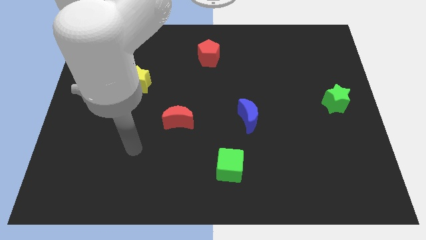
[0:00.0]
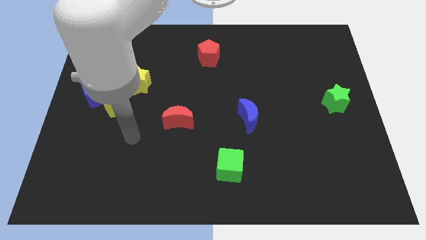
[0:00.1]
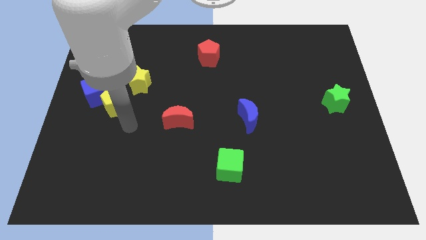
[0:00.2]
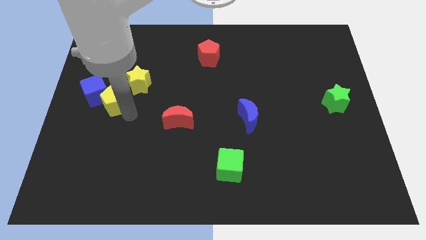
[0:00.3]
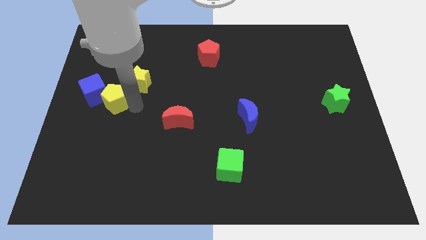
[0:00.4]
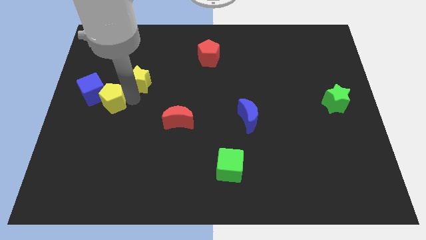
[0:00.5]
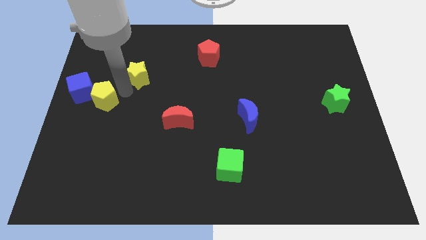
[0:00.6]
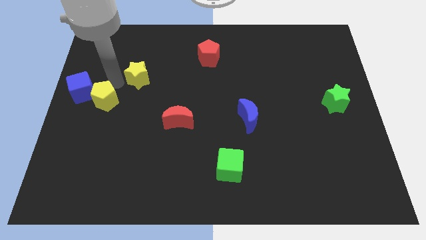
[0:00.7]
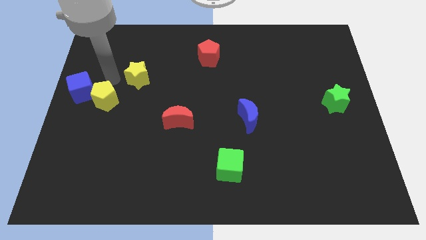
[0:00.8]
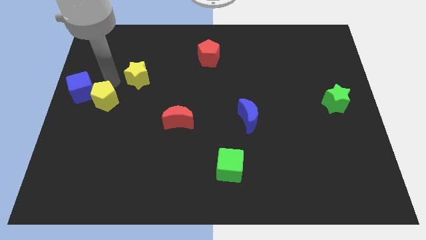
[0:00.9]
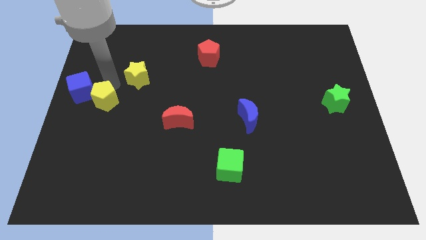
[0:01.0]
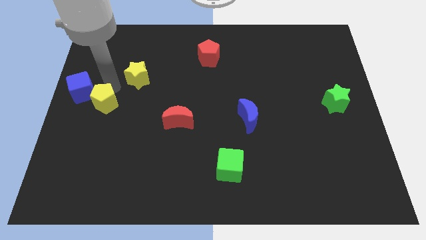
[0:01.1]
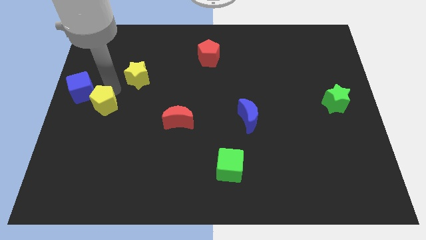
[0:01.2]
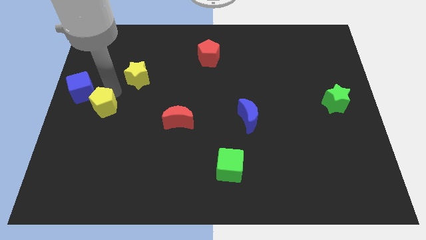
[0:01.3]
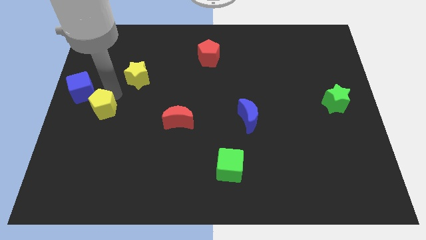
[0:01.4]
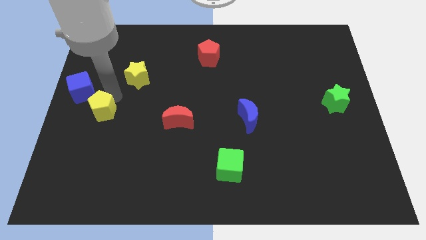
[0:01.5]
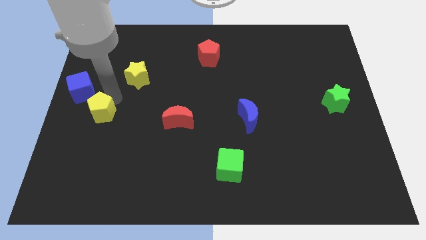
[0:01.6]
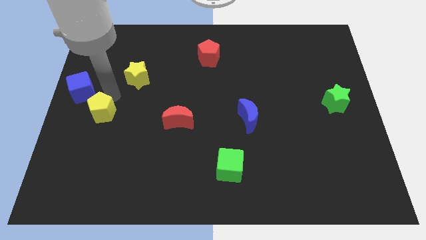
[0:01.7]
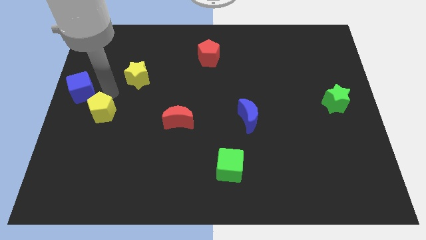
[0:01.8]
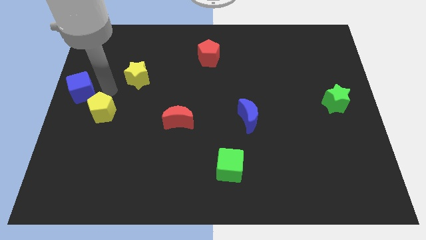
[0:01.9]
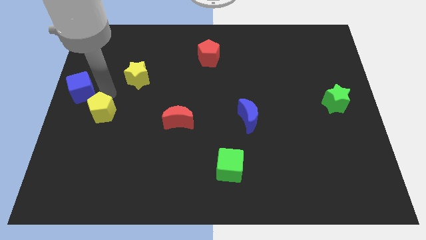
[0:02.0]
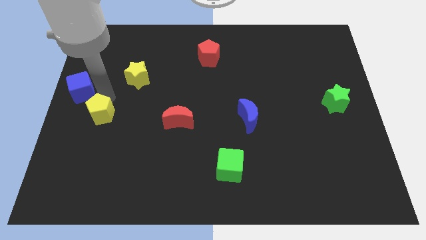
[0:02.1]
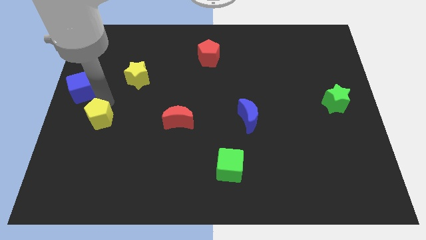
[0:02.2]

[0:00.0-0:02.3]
move the yellow pentagon away from the blue cube and yellow star

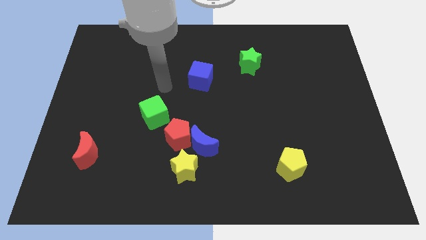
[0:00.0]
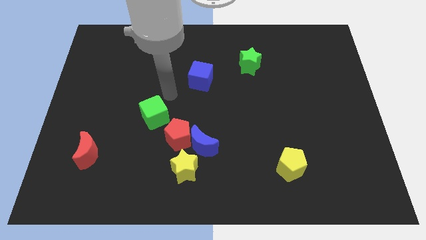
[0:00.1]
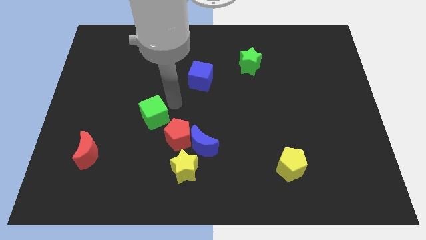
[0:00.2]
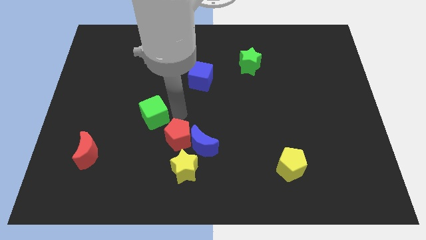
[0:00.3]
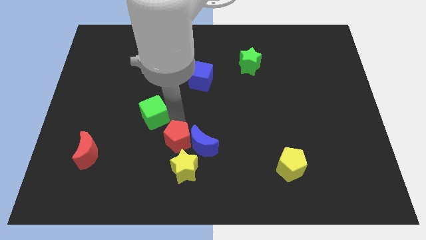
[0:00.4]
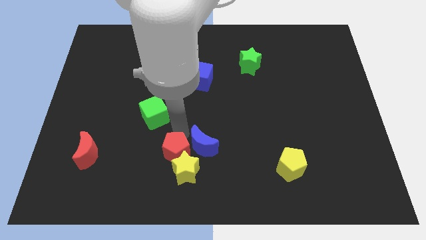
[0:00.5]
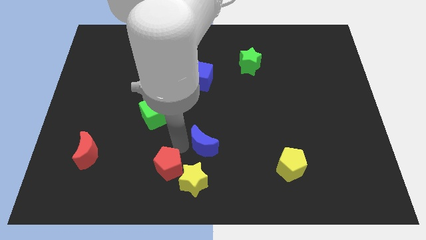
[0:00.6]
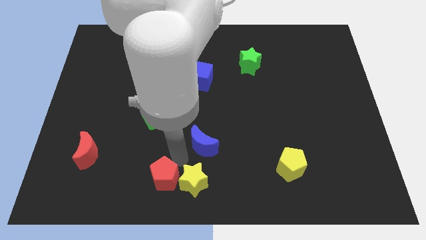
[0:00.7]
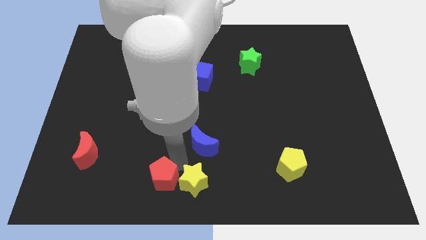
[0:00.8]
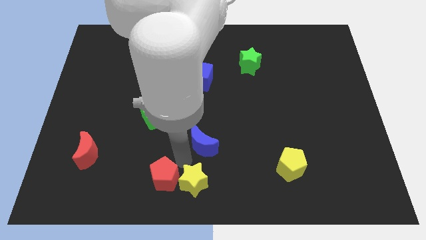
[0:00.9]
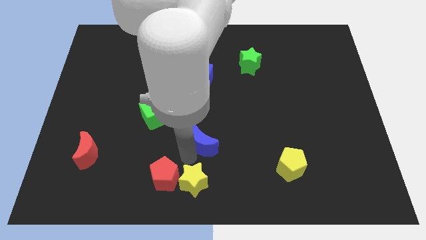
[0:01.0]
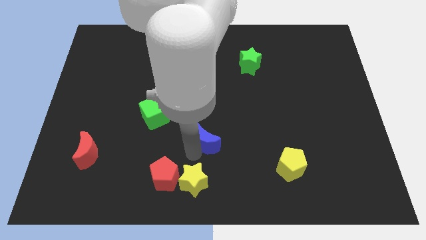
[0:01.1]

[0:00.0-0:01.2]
pull the blue moon apart from the red pentagon and yellow star

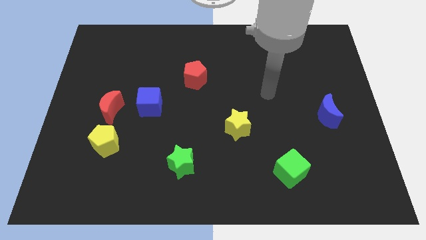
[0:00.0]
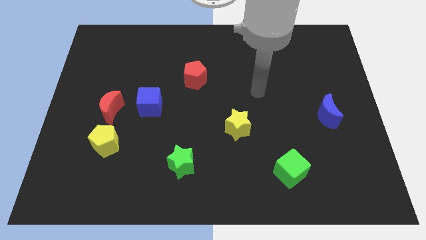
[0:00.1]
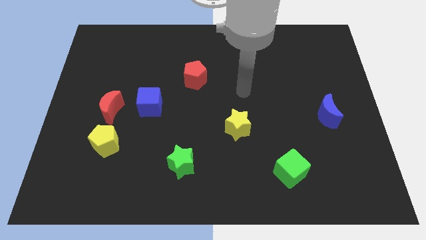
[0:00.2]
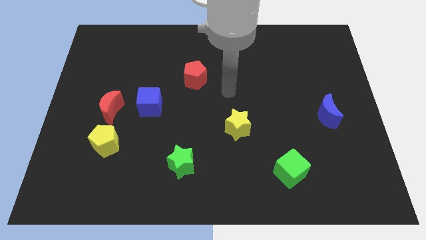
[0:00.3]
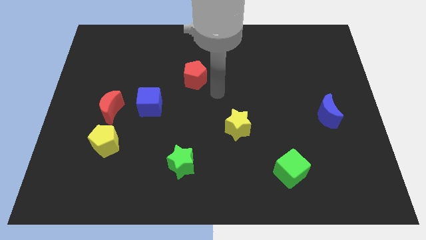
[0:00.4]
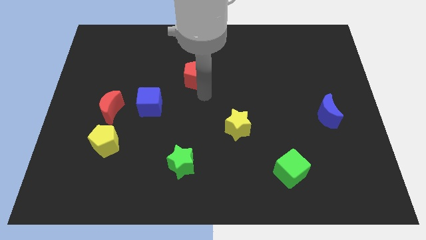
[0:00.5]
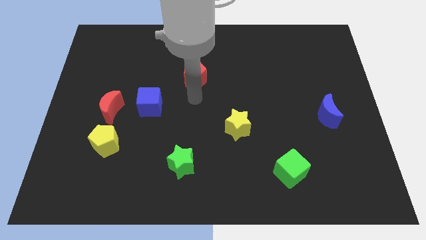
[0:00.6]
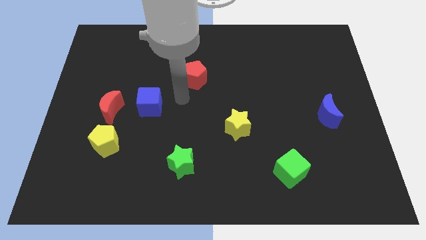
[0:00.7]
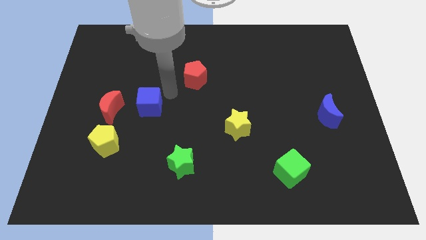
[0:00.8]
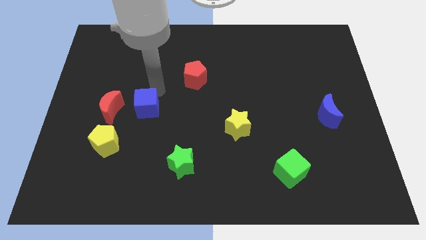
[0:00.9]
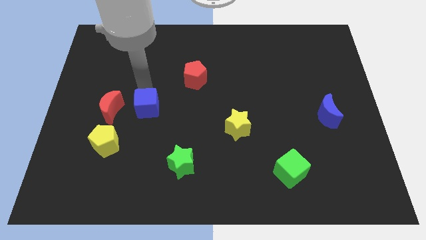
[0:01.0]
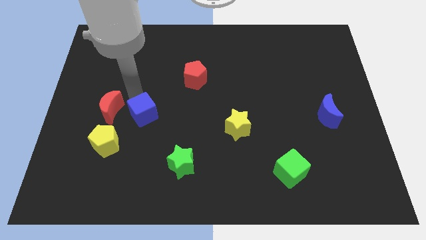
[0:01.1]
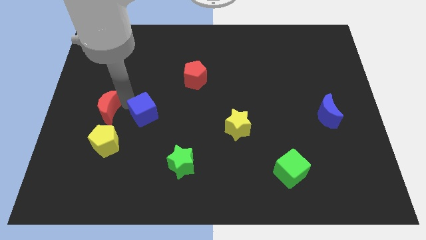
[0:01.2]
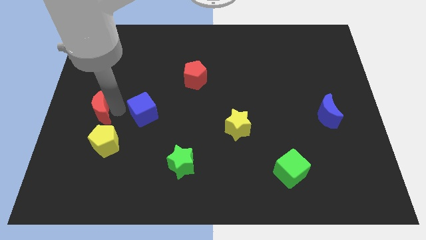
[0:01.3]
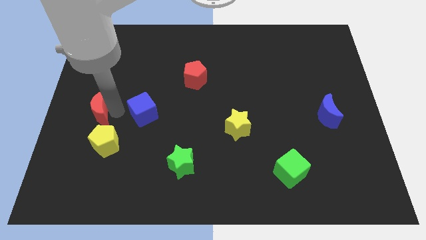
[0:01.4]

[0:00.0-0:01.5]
move the blue cube away from the red moon

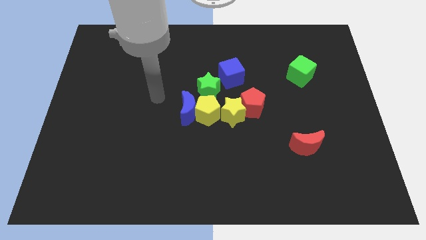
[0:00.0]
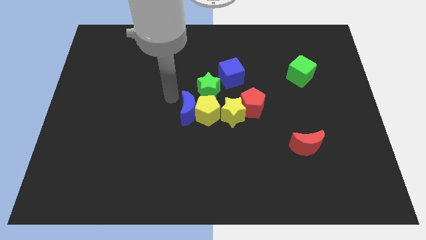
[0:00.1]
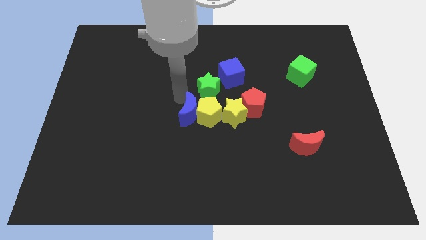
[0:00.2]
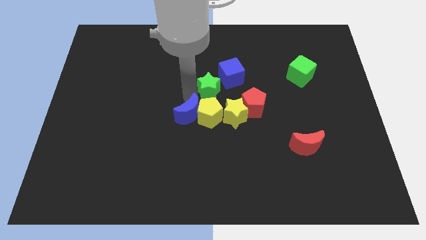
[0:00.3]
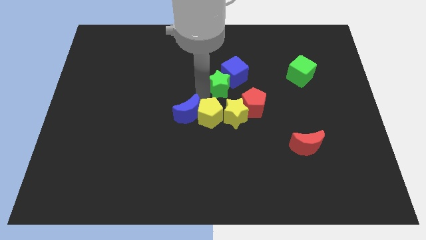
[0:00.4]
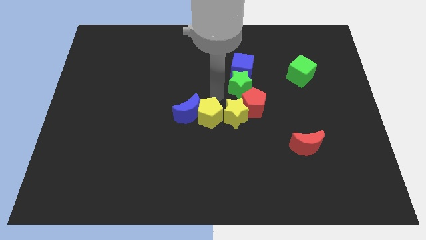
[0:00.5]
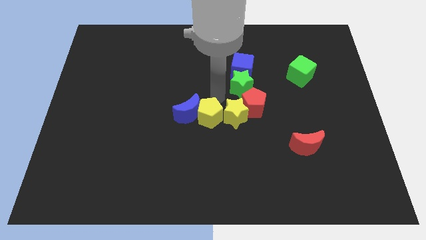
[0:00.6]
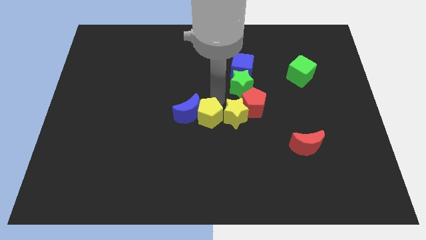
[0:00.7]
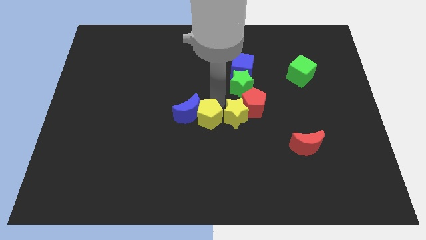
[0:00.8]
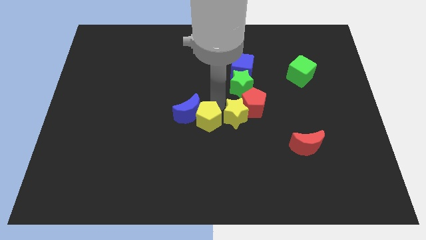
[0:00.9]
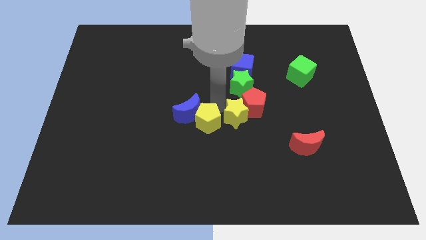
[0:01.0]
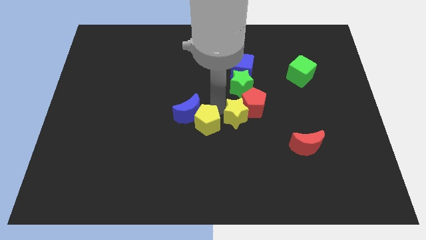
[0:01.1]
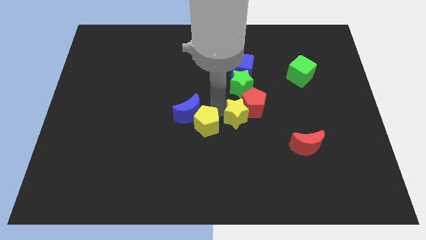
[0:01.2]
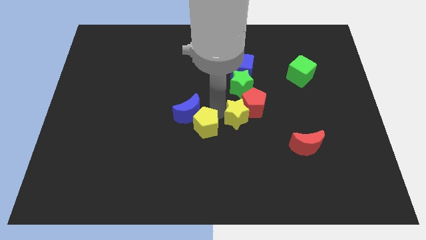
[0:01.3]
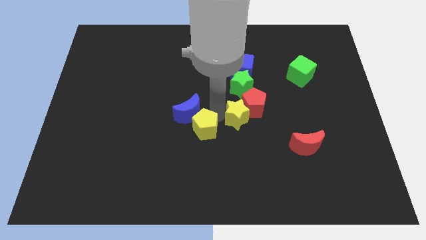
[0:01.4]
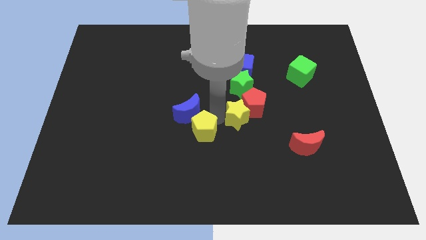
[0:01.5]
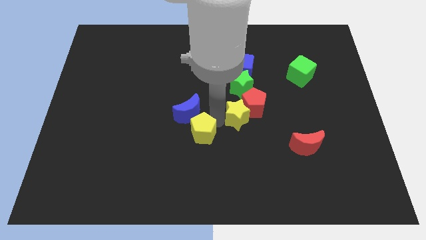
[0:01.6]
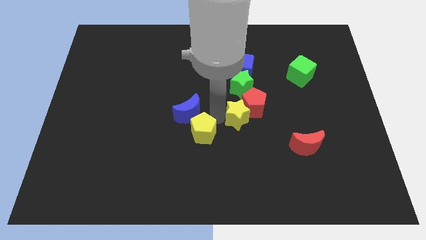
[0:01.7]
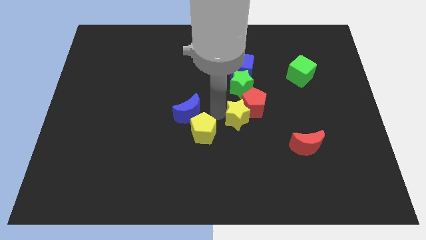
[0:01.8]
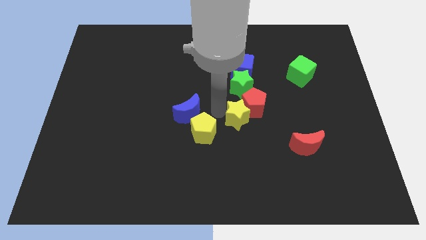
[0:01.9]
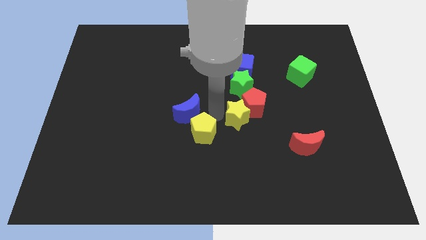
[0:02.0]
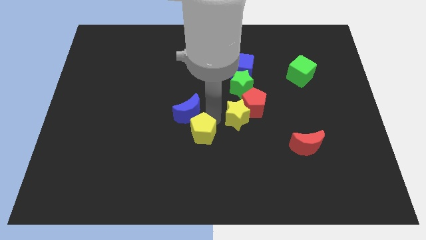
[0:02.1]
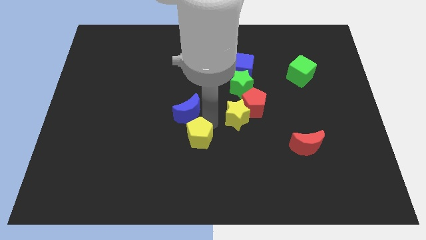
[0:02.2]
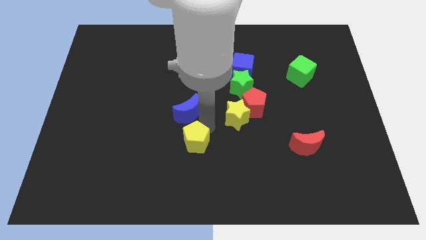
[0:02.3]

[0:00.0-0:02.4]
pull the yellow pentagon apart from the group

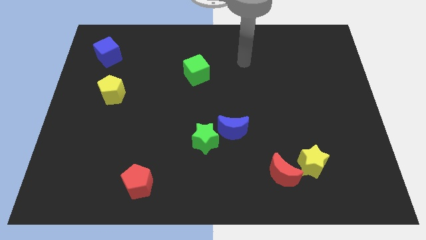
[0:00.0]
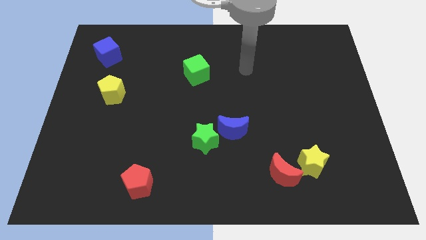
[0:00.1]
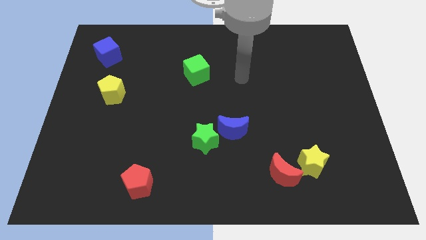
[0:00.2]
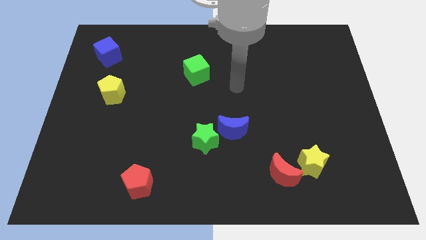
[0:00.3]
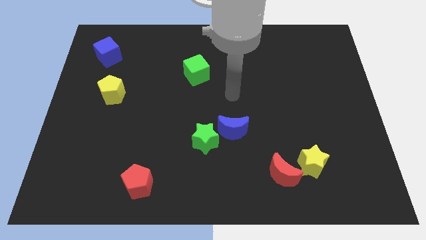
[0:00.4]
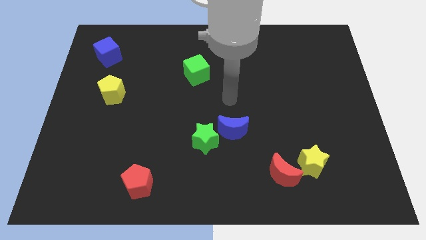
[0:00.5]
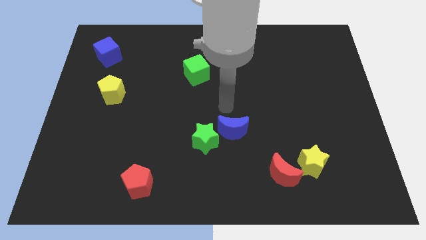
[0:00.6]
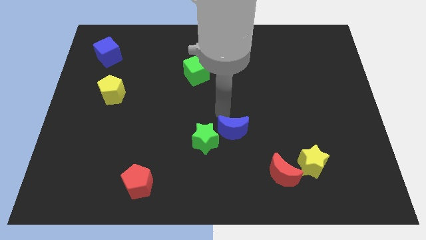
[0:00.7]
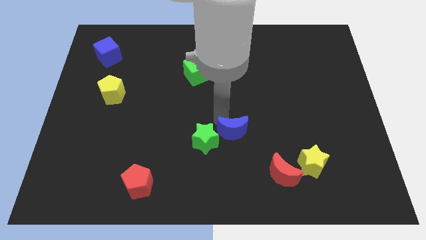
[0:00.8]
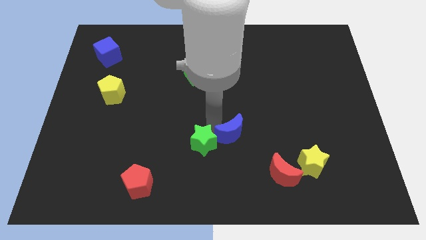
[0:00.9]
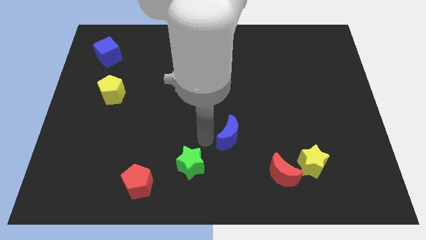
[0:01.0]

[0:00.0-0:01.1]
pull the blue moon apart from the green star

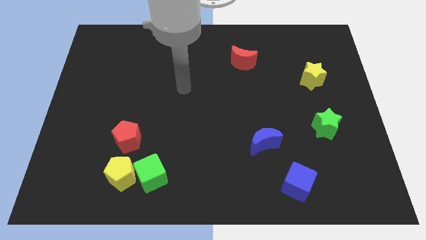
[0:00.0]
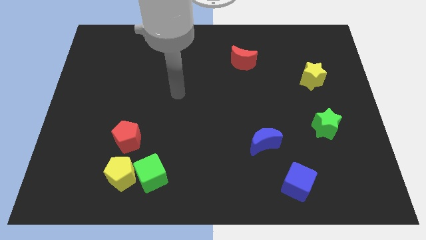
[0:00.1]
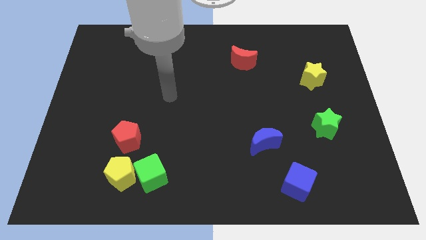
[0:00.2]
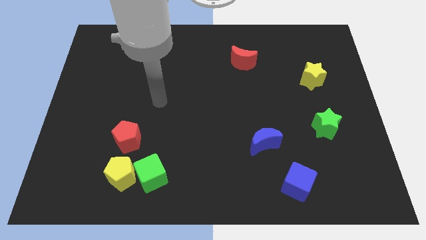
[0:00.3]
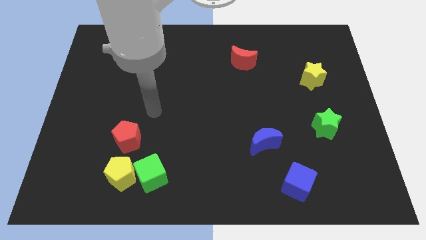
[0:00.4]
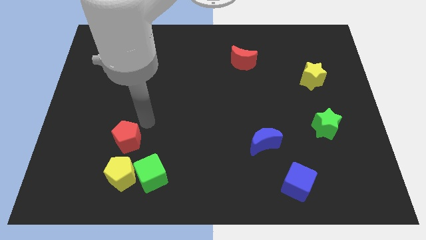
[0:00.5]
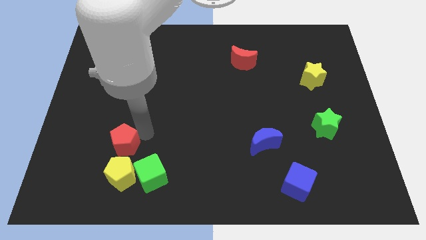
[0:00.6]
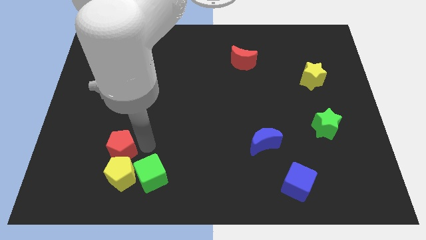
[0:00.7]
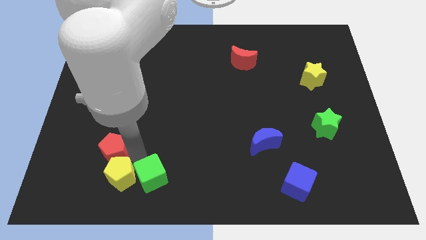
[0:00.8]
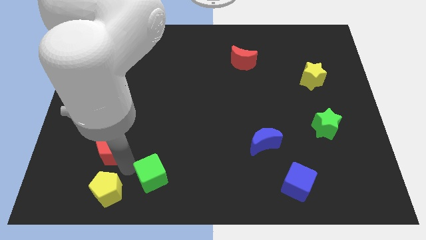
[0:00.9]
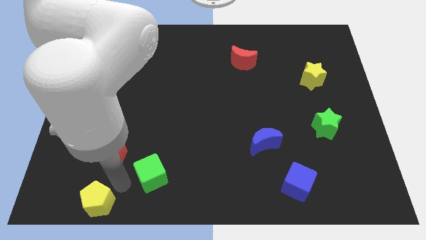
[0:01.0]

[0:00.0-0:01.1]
separate the green cube from the yellow pentagon
